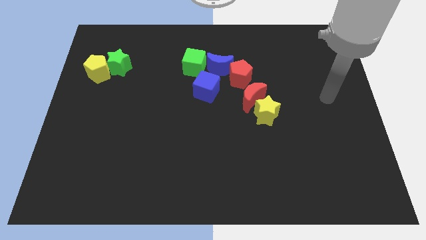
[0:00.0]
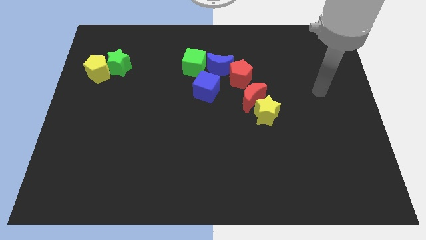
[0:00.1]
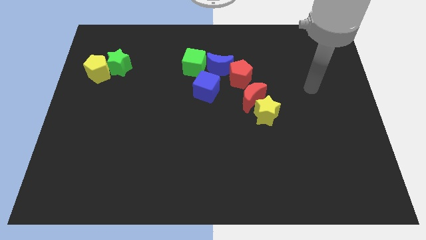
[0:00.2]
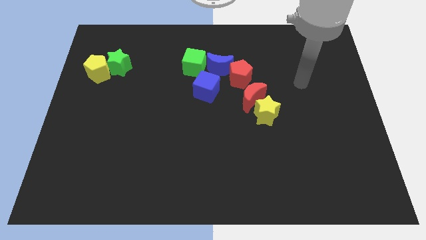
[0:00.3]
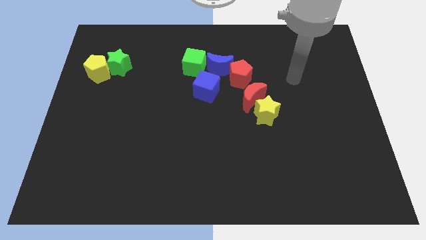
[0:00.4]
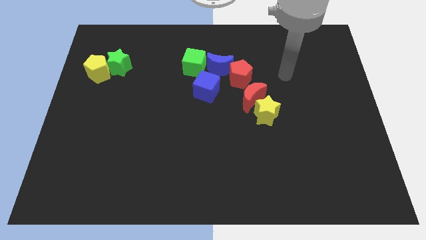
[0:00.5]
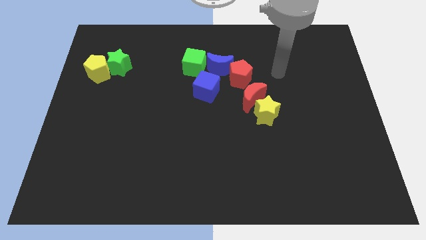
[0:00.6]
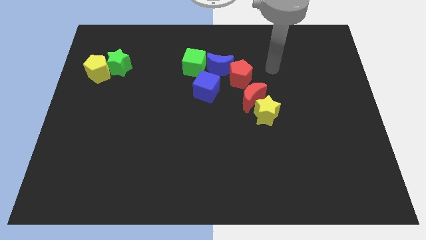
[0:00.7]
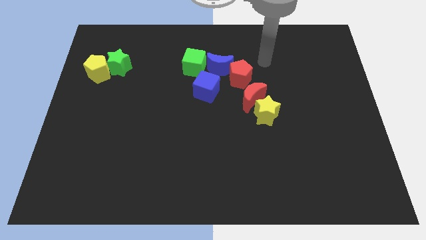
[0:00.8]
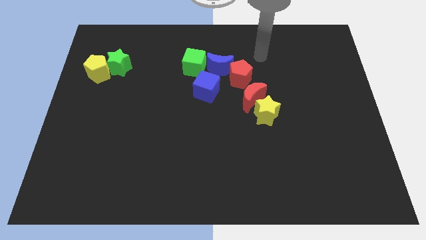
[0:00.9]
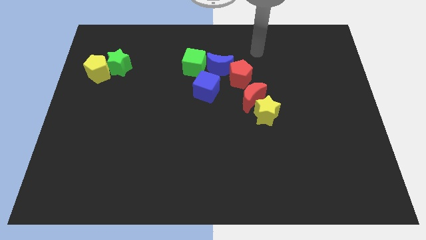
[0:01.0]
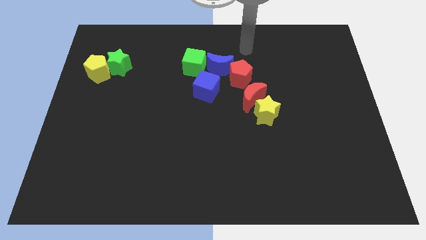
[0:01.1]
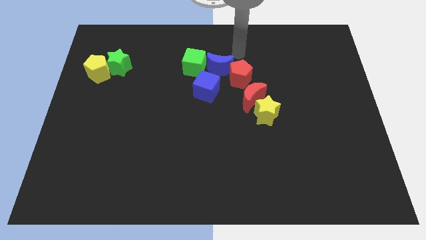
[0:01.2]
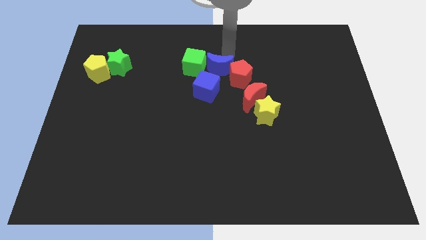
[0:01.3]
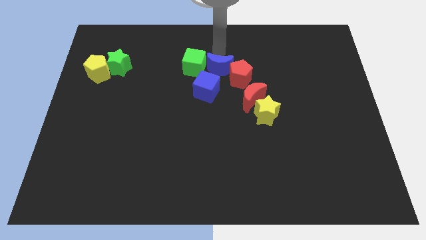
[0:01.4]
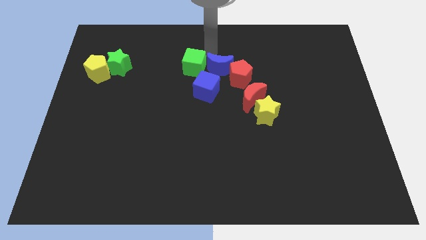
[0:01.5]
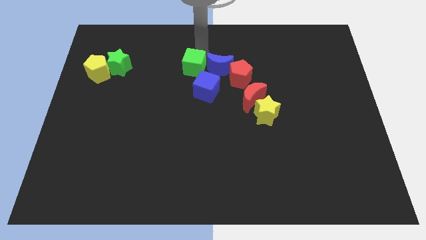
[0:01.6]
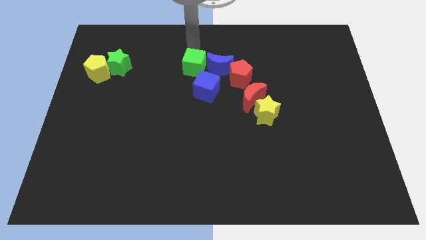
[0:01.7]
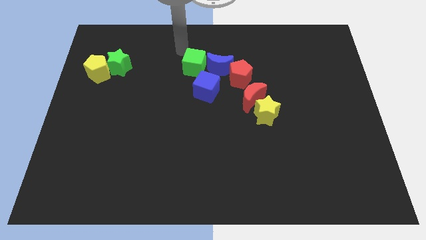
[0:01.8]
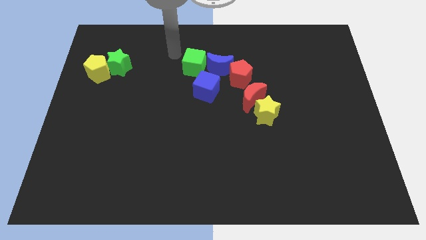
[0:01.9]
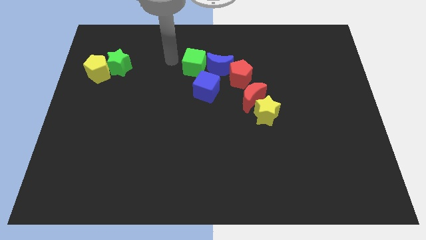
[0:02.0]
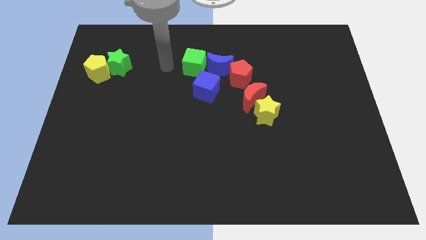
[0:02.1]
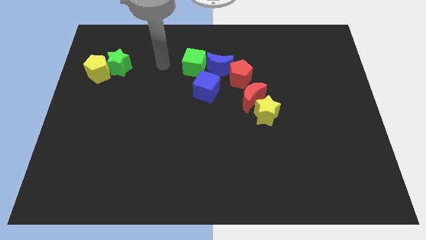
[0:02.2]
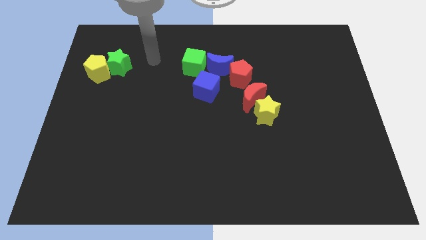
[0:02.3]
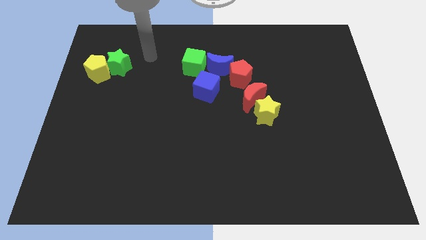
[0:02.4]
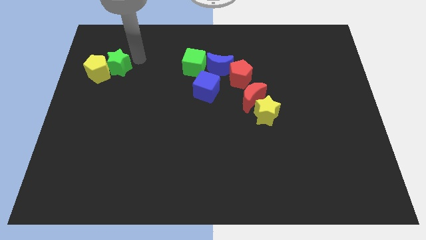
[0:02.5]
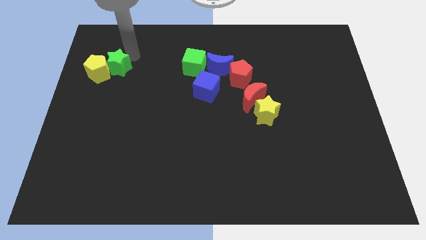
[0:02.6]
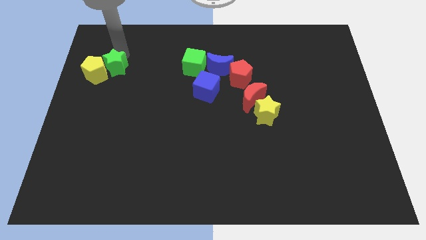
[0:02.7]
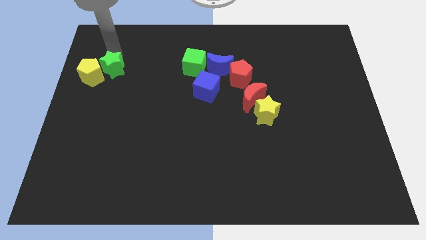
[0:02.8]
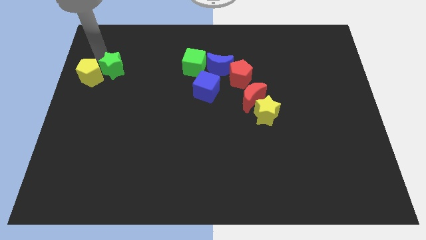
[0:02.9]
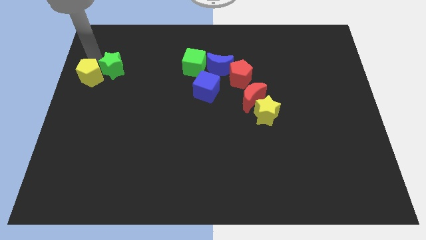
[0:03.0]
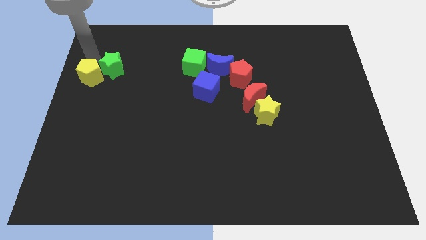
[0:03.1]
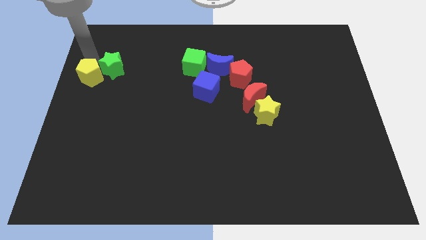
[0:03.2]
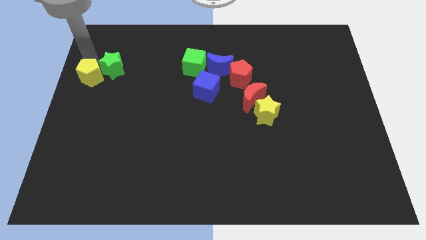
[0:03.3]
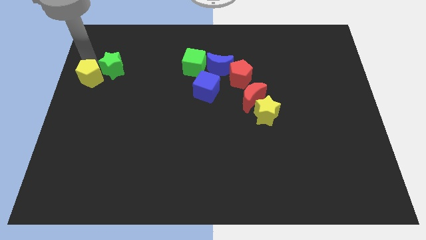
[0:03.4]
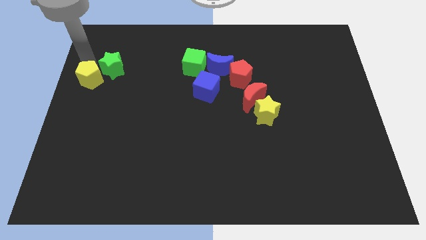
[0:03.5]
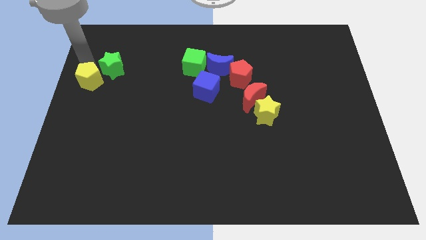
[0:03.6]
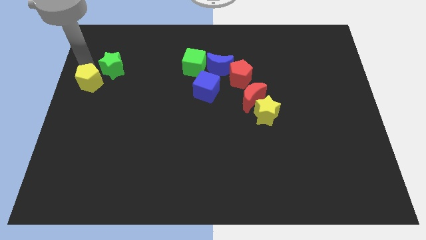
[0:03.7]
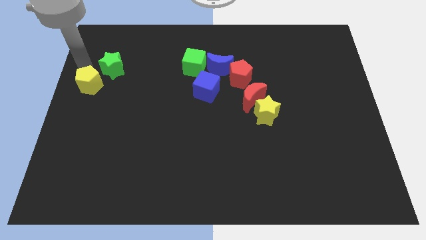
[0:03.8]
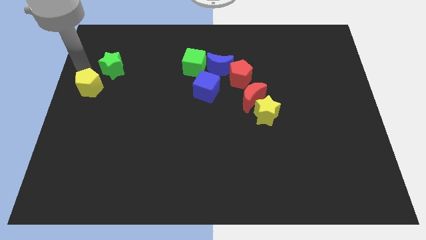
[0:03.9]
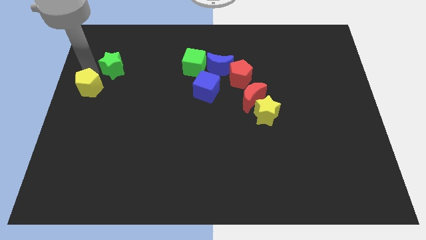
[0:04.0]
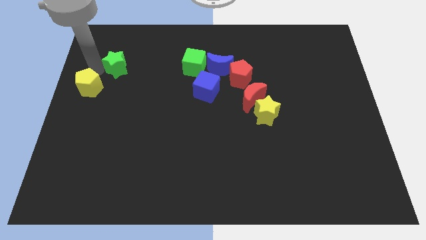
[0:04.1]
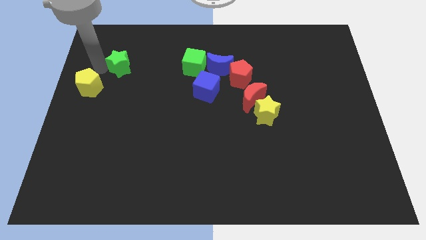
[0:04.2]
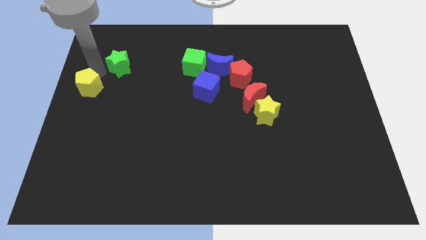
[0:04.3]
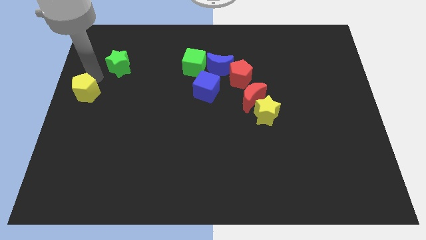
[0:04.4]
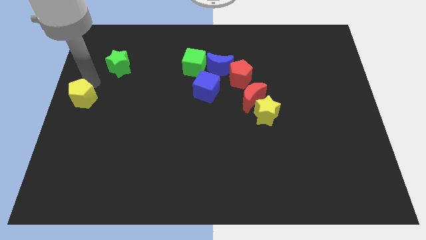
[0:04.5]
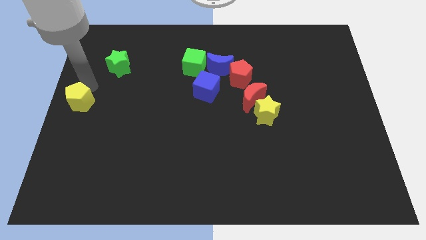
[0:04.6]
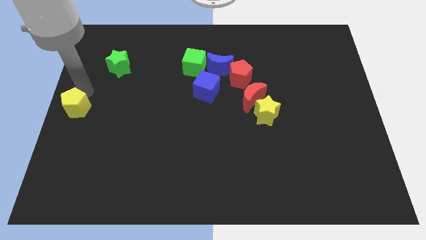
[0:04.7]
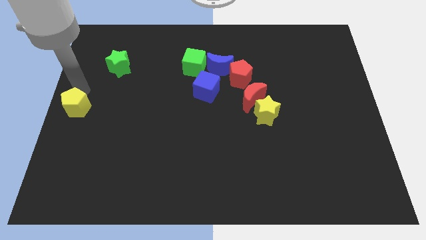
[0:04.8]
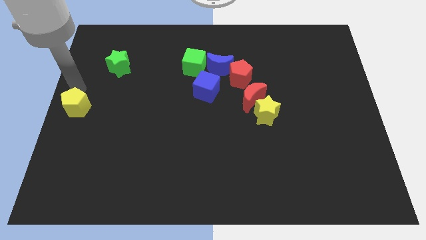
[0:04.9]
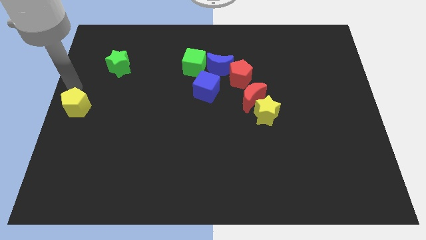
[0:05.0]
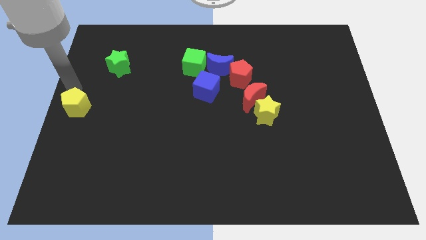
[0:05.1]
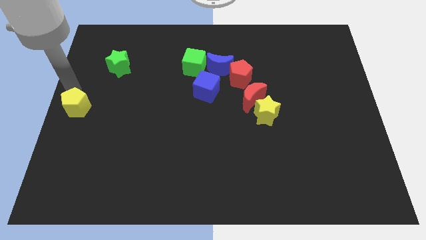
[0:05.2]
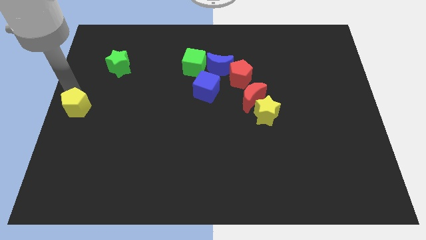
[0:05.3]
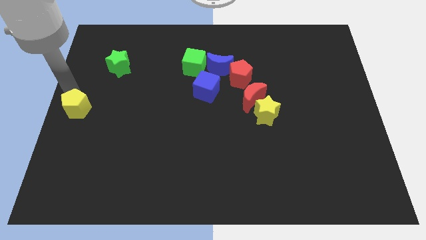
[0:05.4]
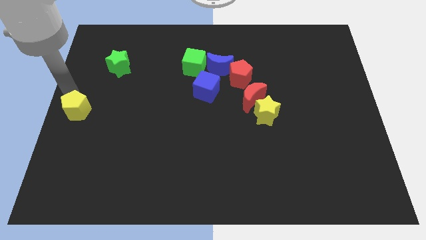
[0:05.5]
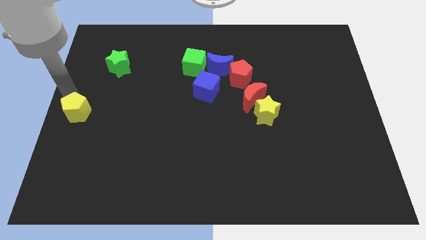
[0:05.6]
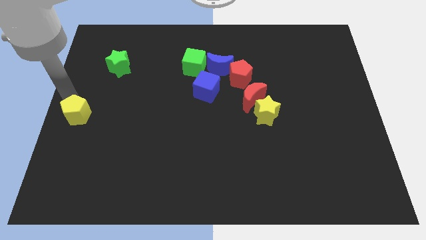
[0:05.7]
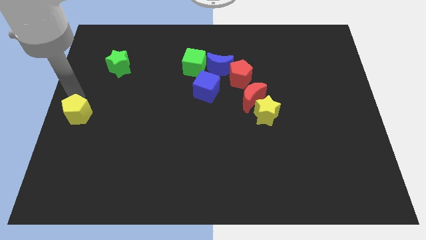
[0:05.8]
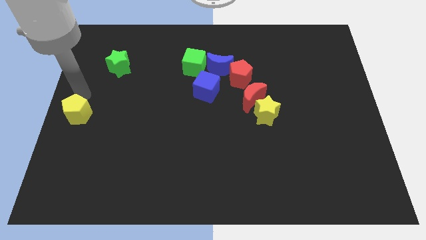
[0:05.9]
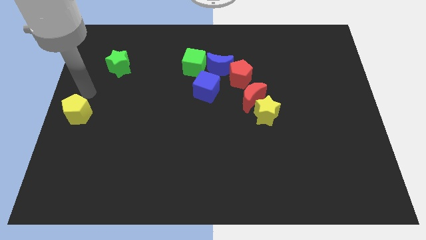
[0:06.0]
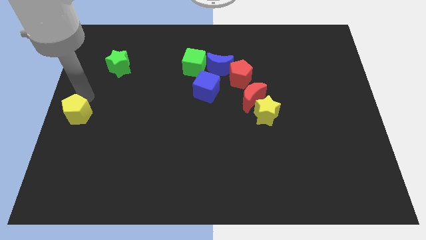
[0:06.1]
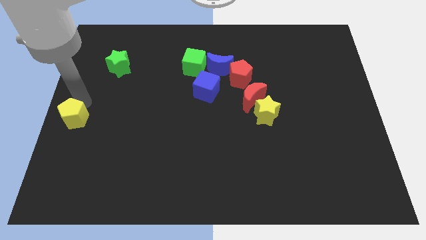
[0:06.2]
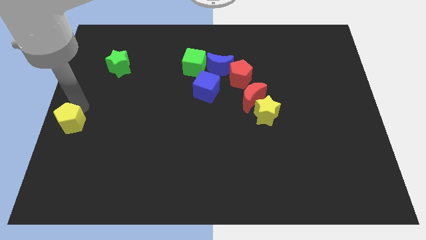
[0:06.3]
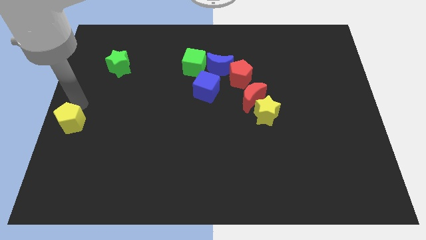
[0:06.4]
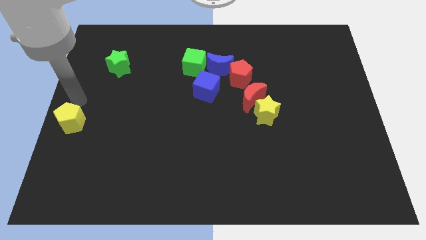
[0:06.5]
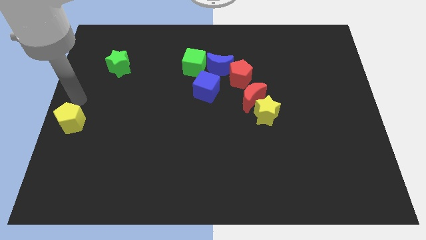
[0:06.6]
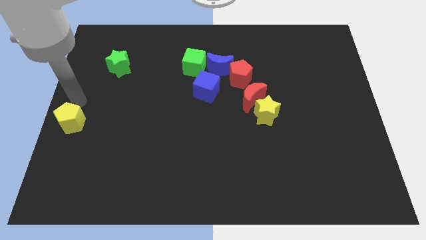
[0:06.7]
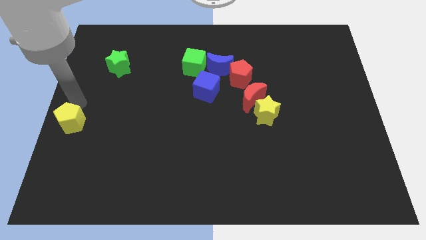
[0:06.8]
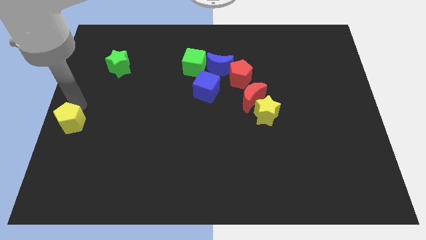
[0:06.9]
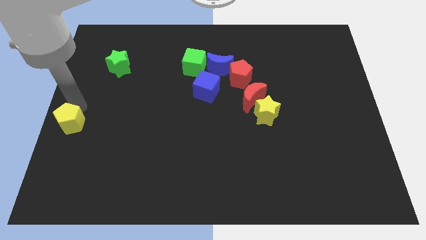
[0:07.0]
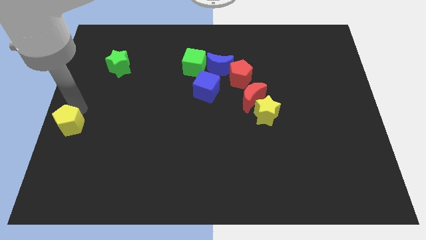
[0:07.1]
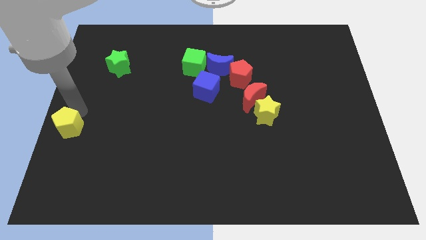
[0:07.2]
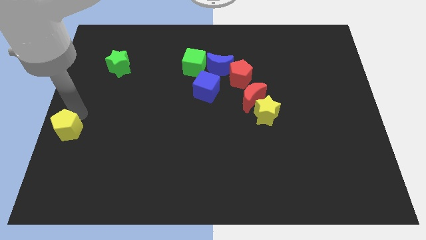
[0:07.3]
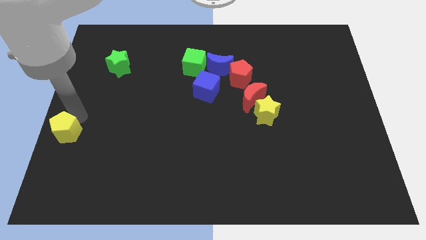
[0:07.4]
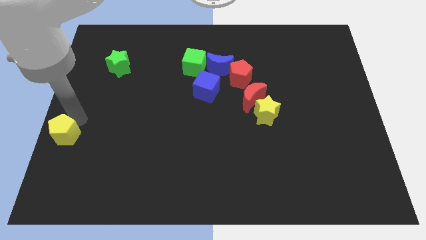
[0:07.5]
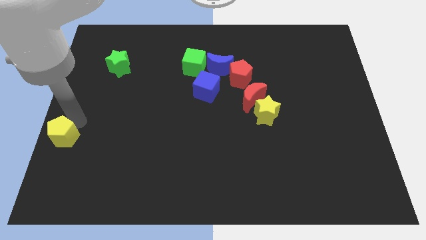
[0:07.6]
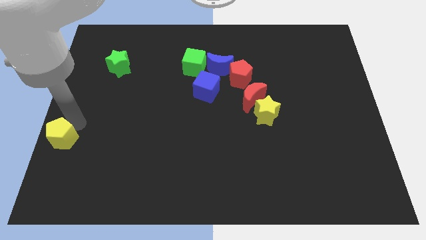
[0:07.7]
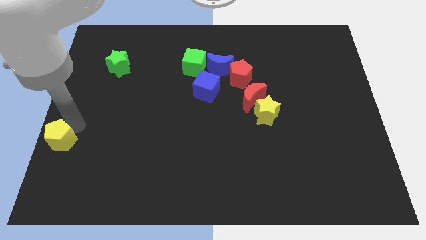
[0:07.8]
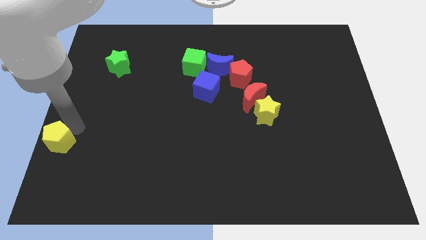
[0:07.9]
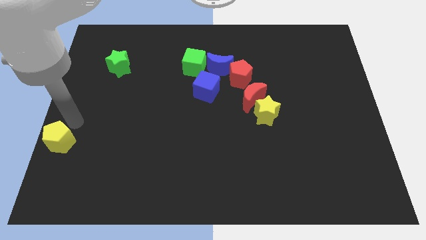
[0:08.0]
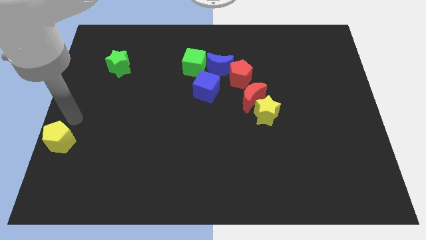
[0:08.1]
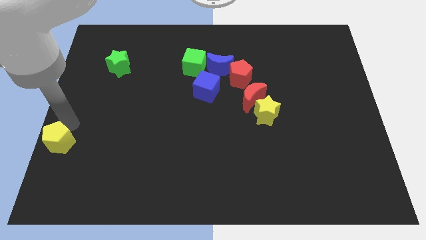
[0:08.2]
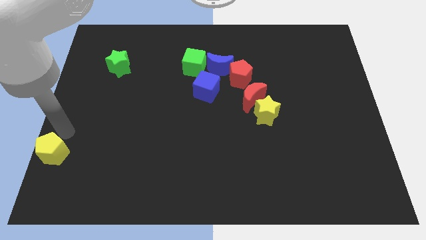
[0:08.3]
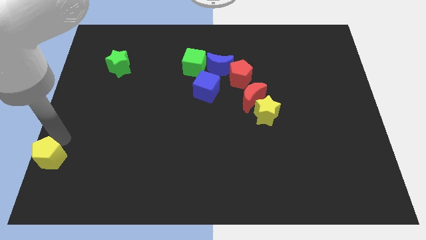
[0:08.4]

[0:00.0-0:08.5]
push the yellow pentagon to the bottom left of the board
